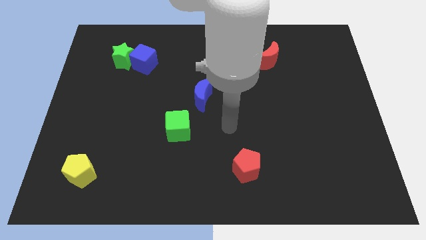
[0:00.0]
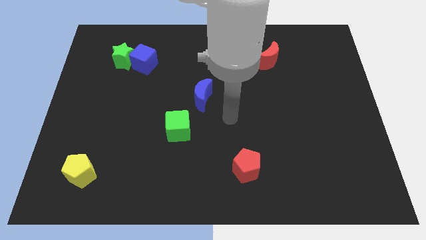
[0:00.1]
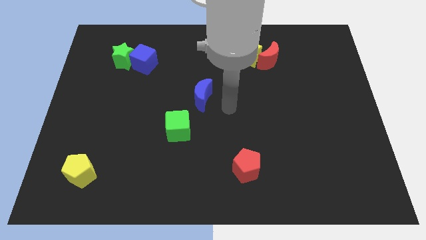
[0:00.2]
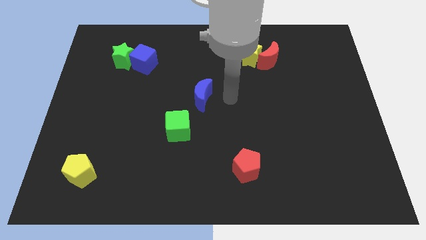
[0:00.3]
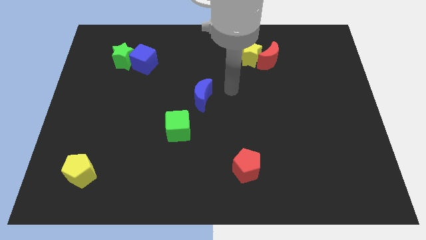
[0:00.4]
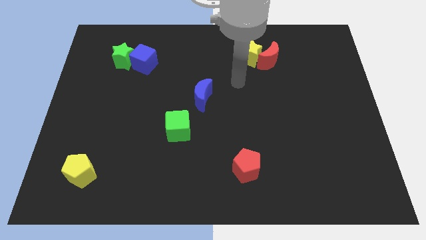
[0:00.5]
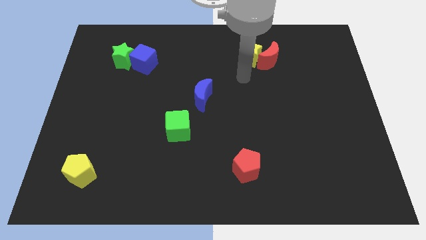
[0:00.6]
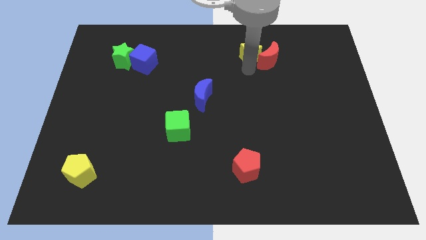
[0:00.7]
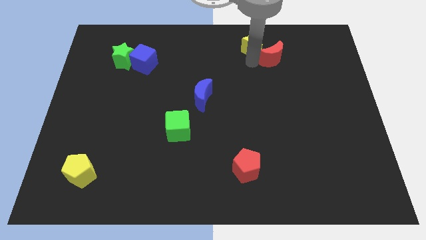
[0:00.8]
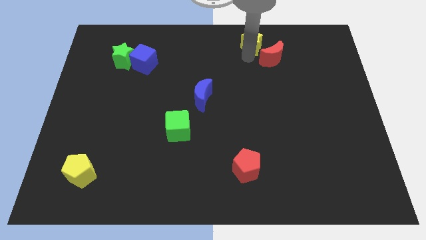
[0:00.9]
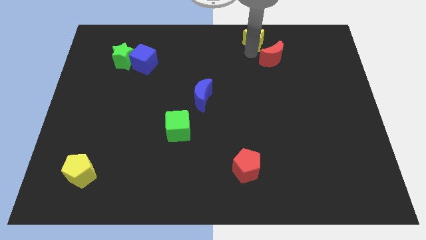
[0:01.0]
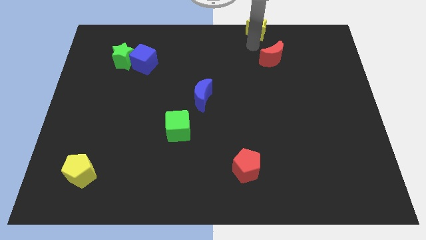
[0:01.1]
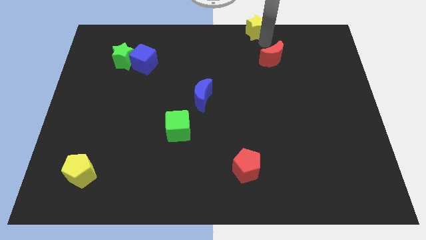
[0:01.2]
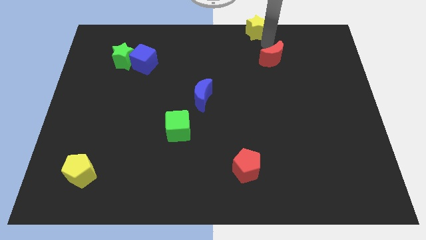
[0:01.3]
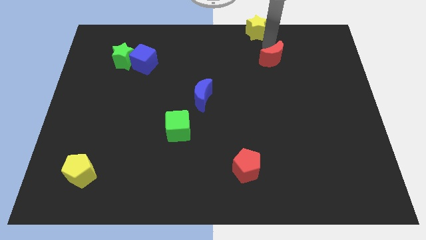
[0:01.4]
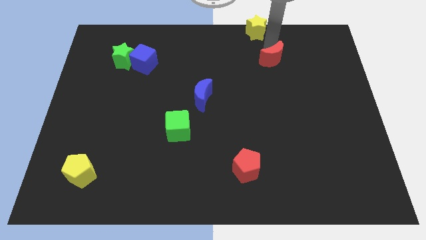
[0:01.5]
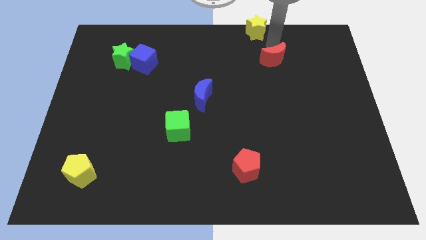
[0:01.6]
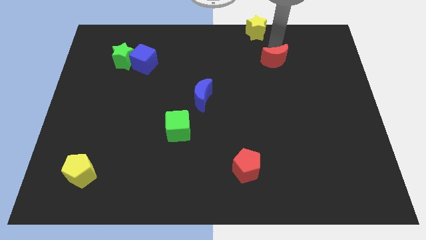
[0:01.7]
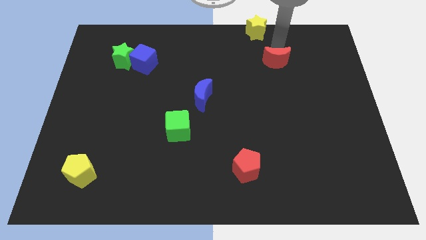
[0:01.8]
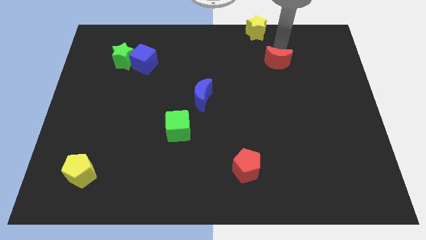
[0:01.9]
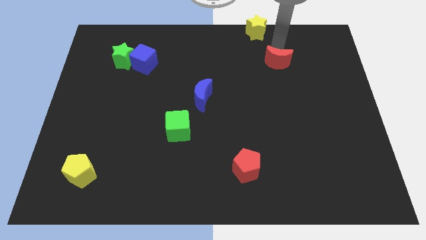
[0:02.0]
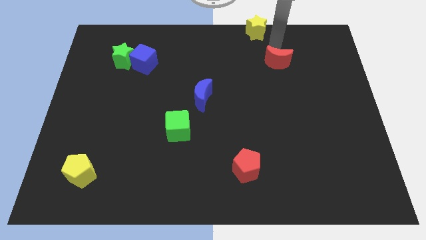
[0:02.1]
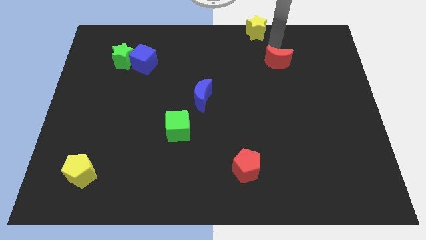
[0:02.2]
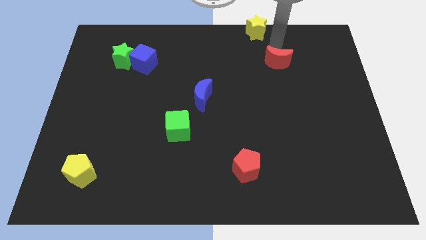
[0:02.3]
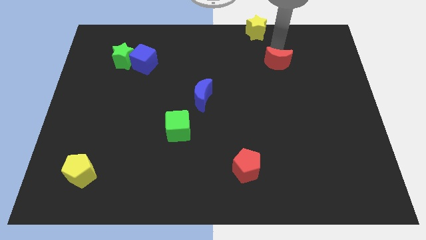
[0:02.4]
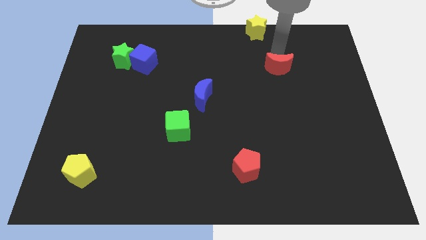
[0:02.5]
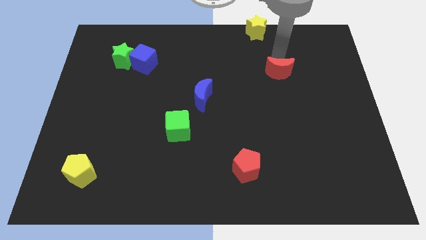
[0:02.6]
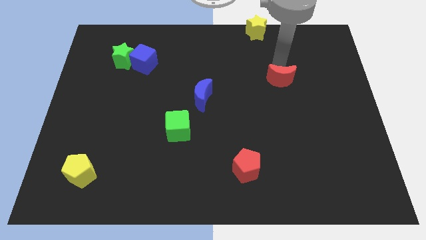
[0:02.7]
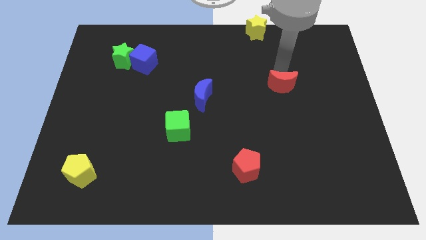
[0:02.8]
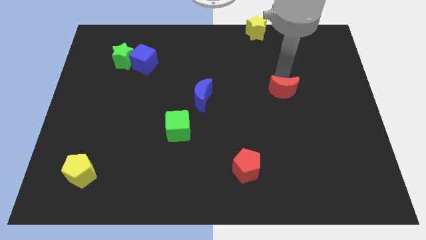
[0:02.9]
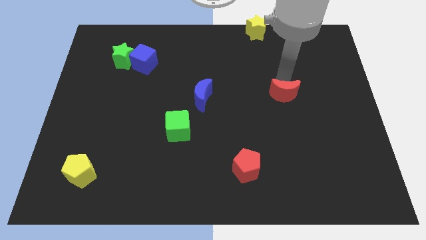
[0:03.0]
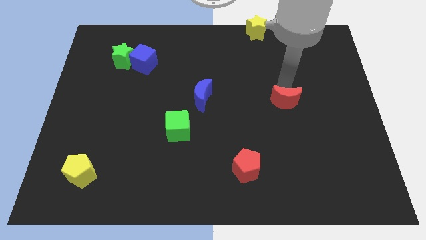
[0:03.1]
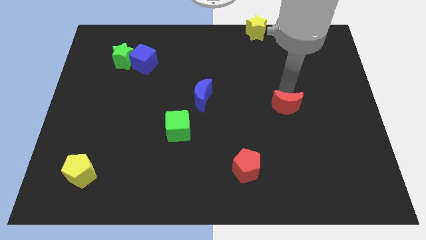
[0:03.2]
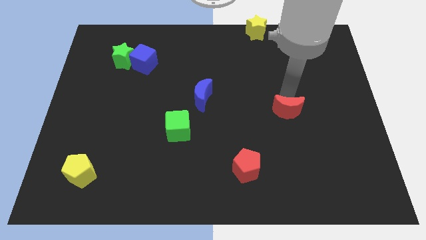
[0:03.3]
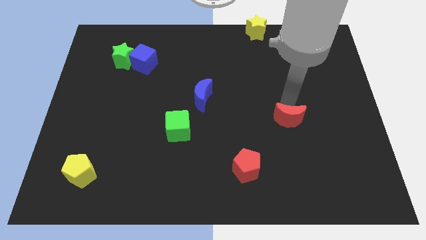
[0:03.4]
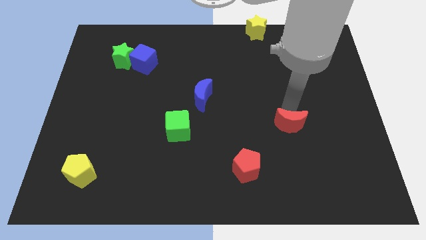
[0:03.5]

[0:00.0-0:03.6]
push the red moon downwards

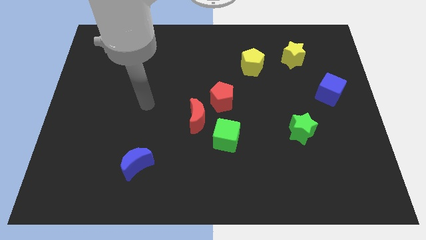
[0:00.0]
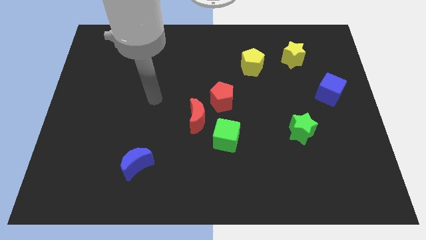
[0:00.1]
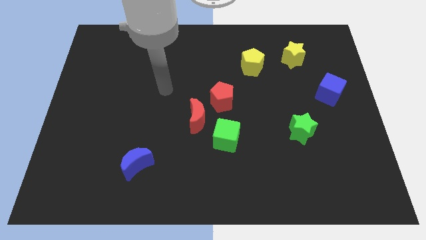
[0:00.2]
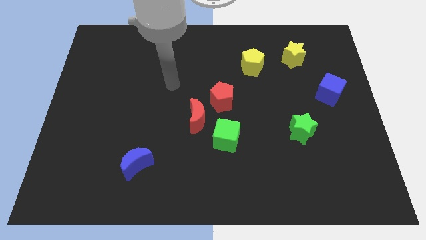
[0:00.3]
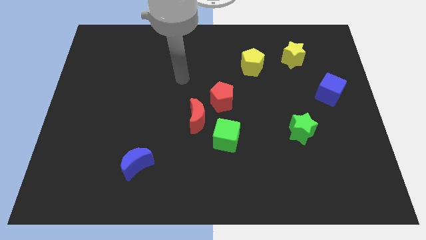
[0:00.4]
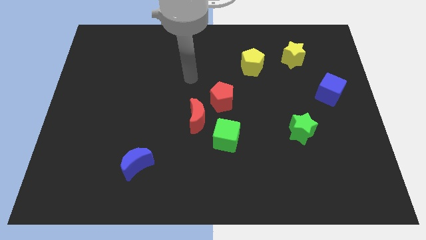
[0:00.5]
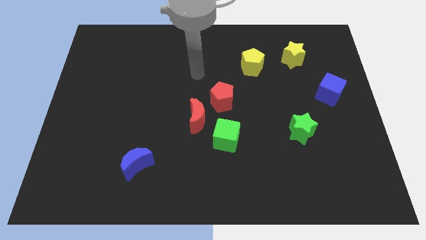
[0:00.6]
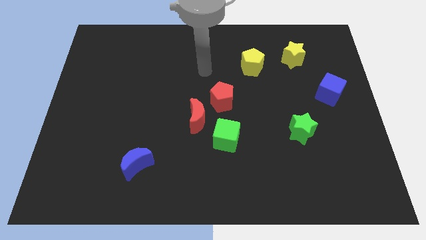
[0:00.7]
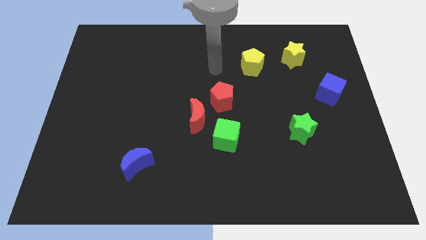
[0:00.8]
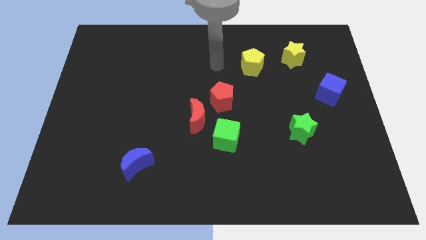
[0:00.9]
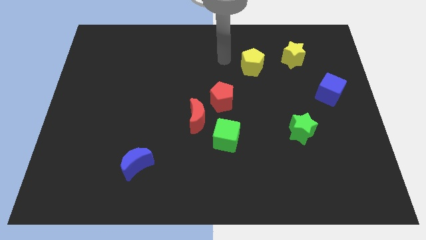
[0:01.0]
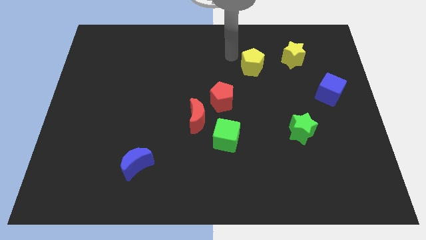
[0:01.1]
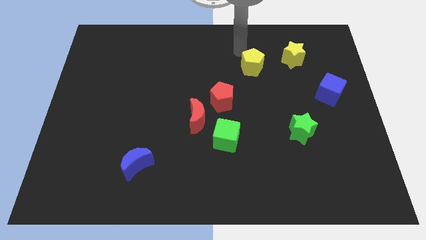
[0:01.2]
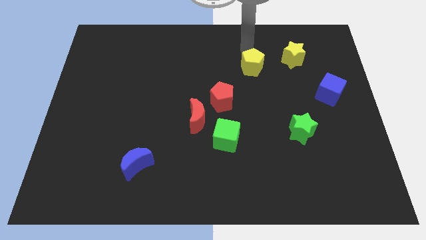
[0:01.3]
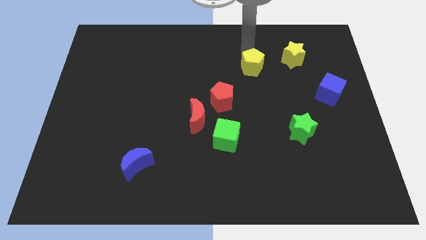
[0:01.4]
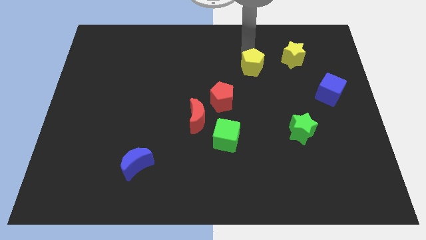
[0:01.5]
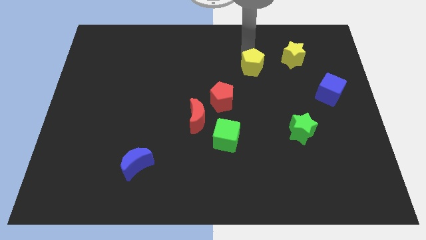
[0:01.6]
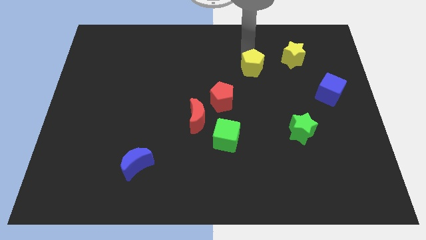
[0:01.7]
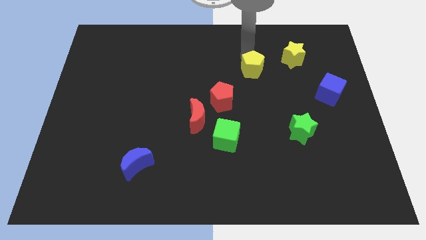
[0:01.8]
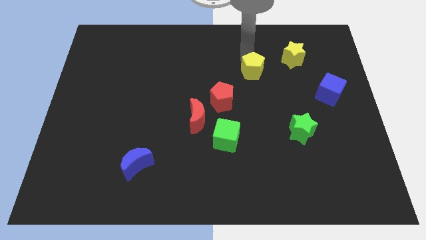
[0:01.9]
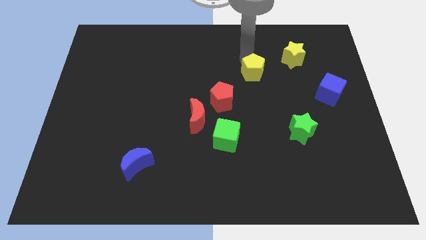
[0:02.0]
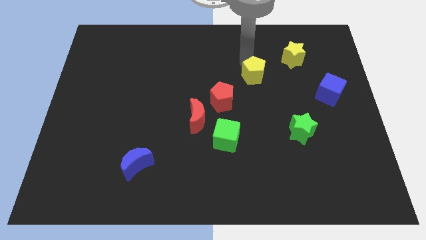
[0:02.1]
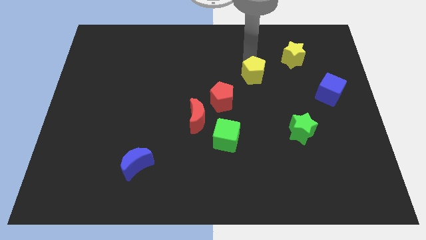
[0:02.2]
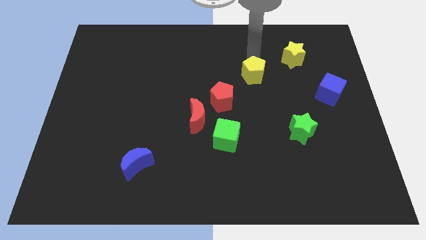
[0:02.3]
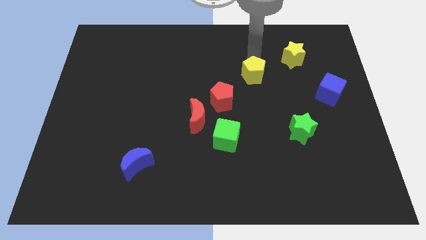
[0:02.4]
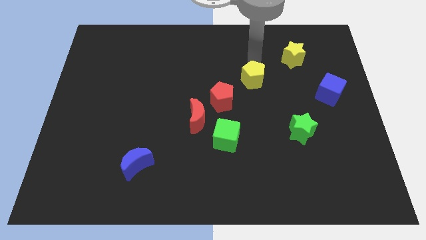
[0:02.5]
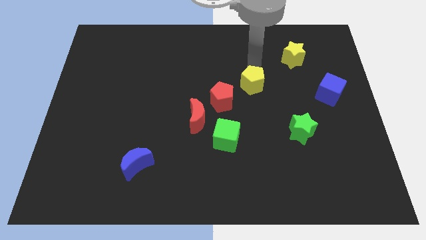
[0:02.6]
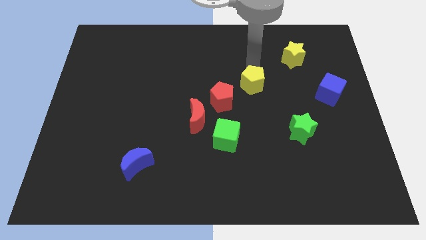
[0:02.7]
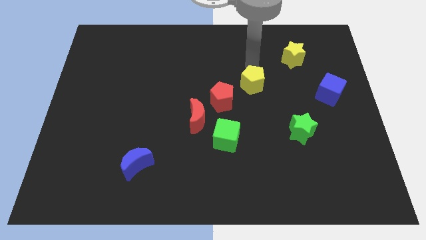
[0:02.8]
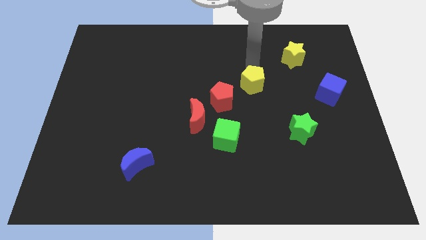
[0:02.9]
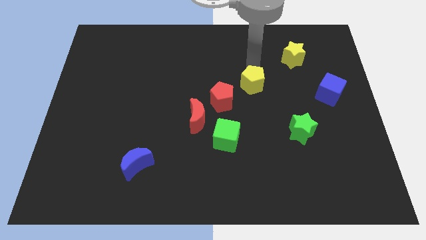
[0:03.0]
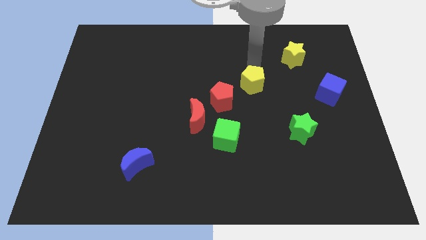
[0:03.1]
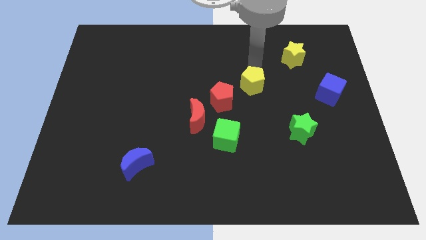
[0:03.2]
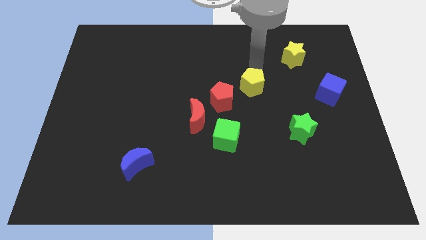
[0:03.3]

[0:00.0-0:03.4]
slide the yellow pentagon downwards a little

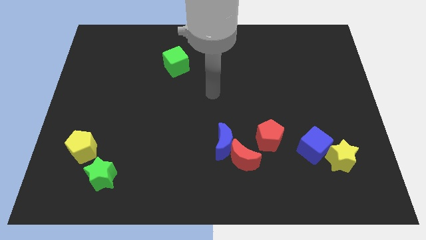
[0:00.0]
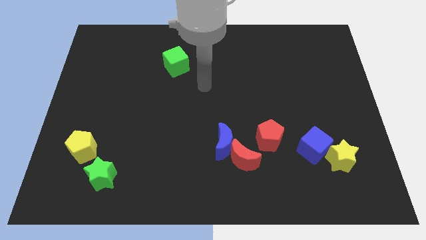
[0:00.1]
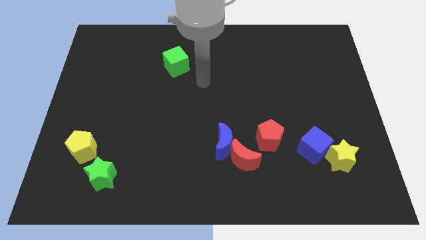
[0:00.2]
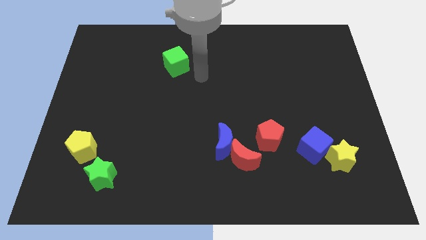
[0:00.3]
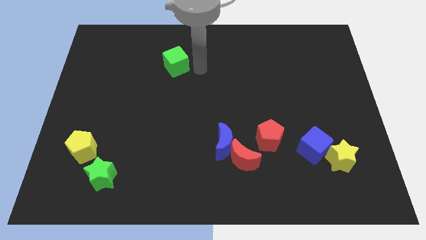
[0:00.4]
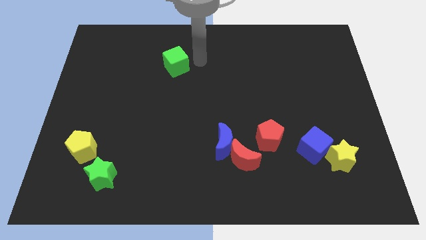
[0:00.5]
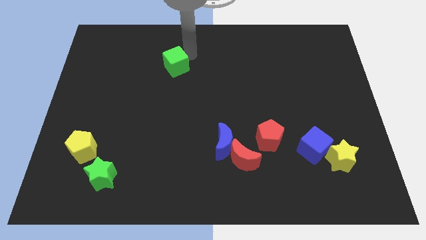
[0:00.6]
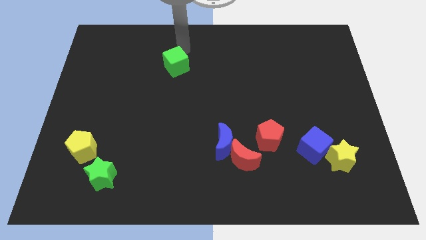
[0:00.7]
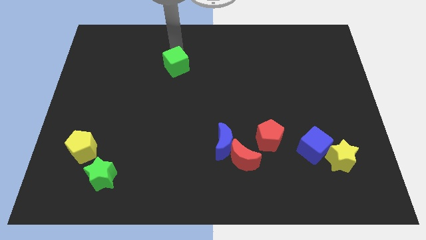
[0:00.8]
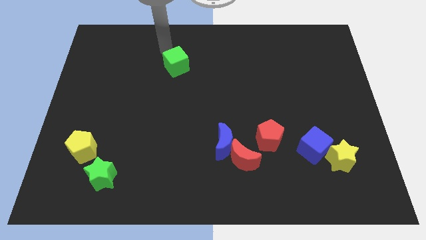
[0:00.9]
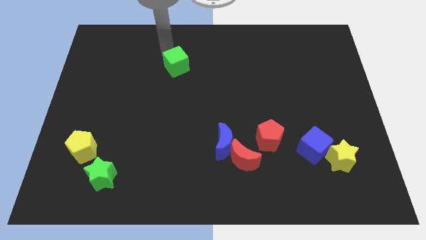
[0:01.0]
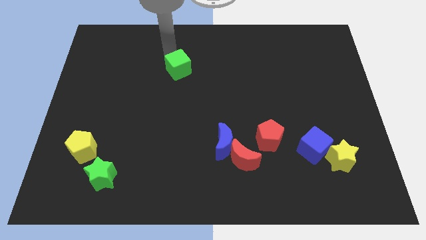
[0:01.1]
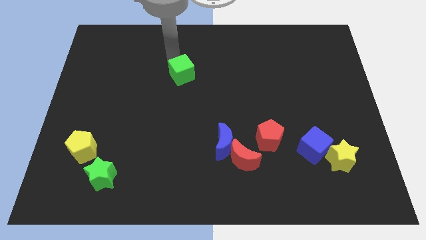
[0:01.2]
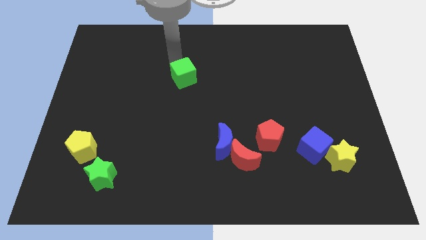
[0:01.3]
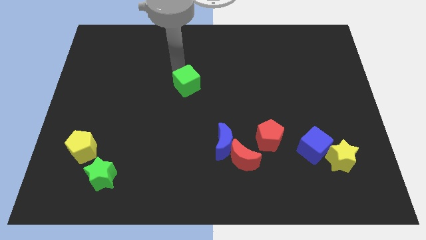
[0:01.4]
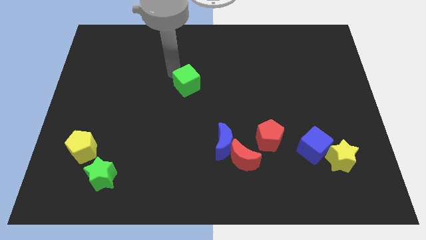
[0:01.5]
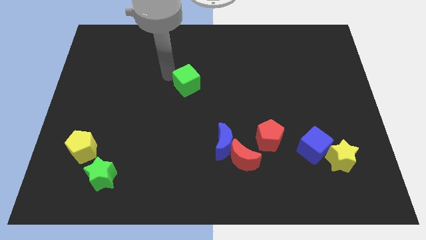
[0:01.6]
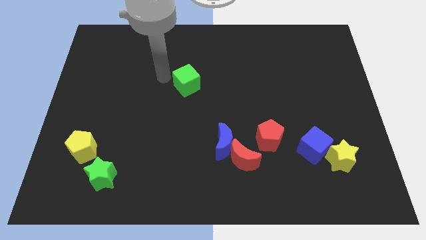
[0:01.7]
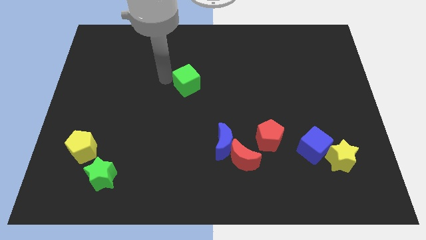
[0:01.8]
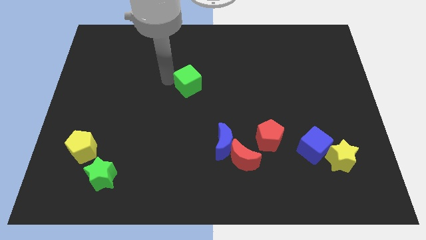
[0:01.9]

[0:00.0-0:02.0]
move the green cube downwards and then right slightly
